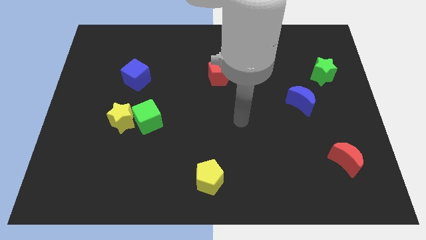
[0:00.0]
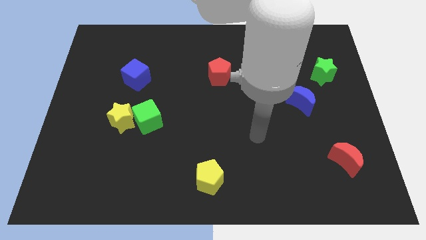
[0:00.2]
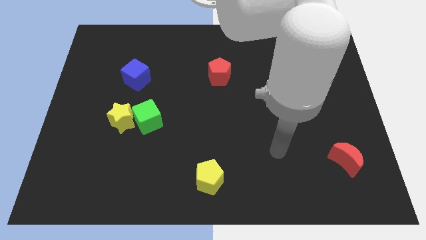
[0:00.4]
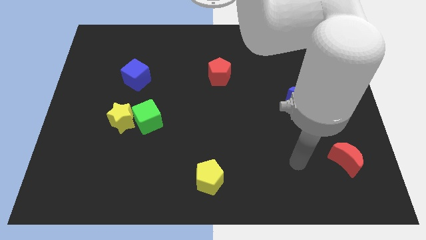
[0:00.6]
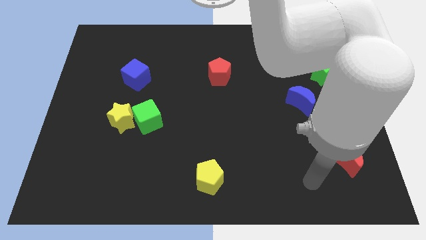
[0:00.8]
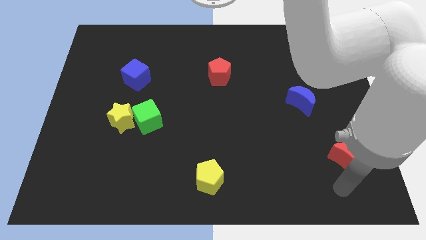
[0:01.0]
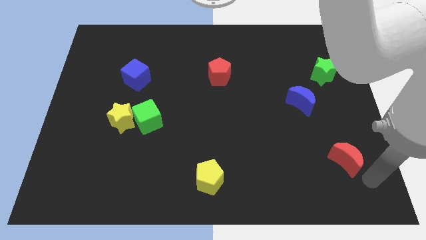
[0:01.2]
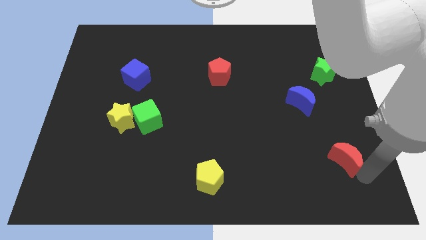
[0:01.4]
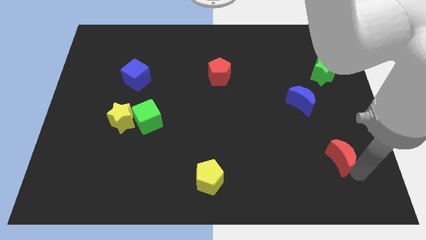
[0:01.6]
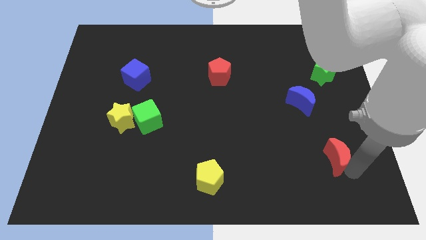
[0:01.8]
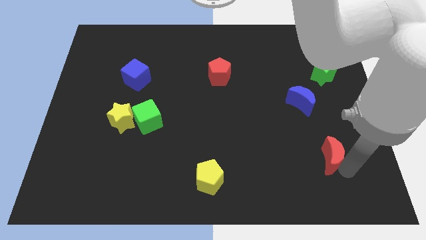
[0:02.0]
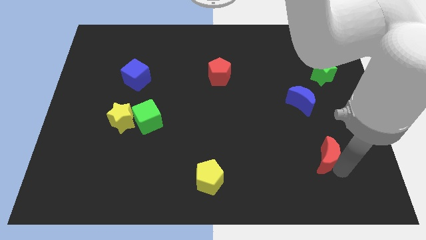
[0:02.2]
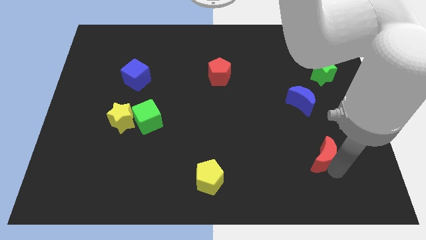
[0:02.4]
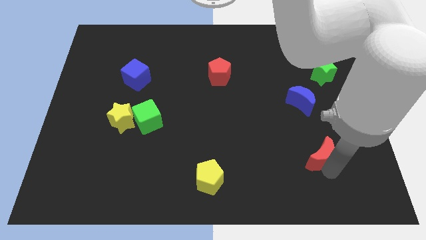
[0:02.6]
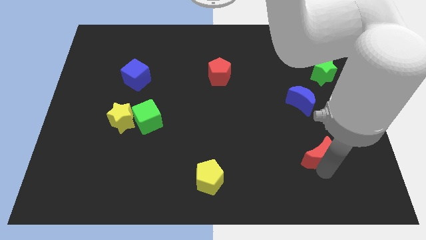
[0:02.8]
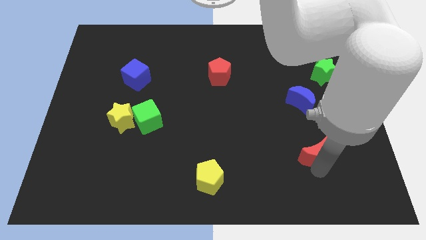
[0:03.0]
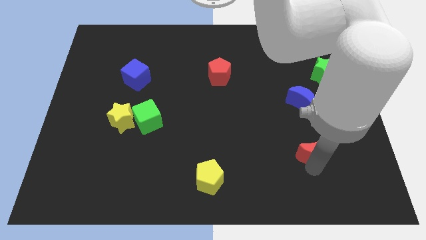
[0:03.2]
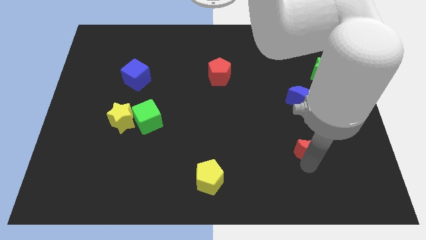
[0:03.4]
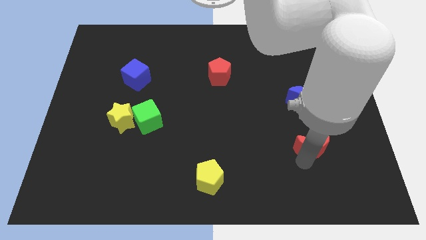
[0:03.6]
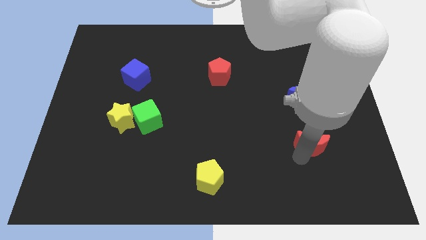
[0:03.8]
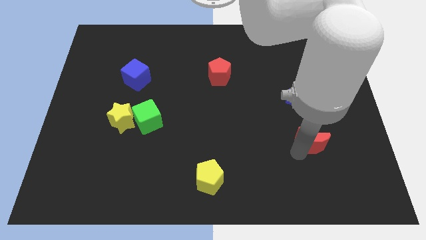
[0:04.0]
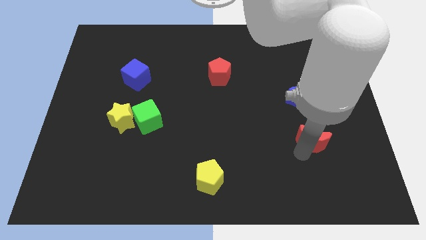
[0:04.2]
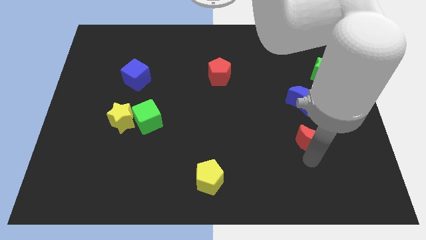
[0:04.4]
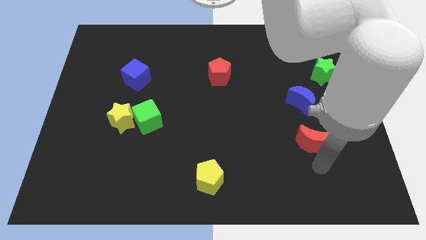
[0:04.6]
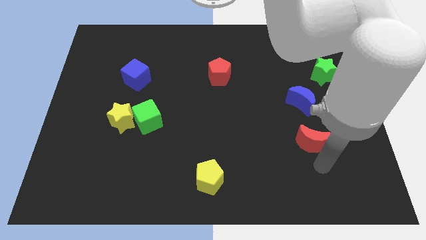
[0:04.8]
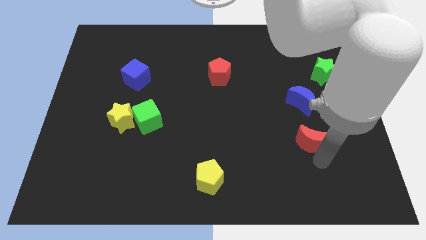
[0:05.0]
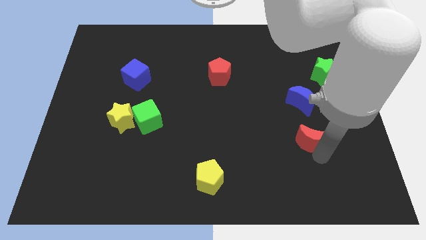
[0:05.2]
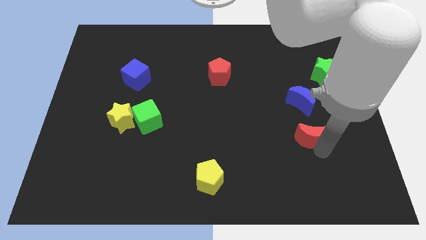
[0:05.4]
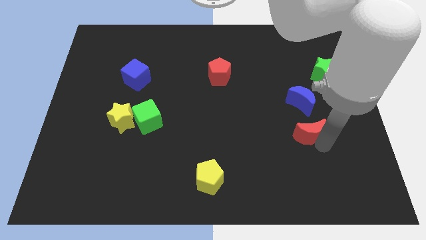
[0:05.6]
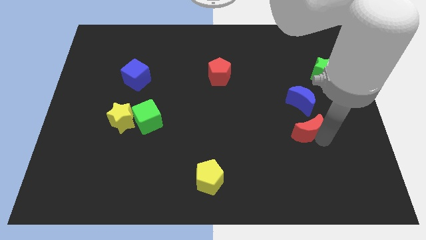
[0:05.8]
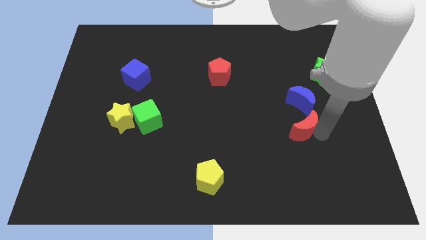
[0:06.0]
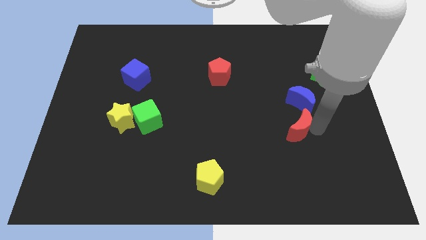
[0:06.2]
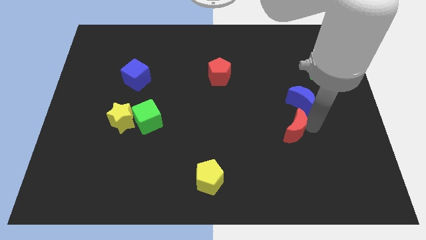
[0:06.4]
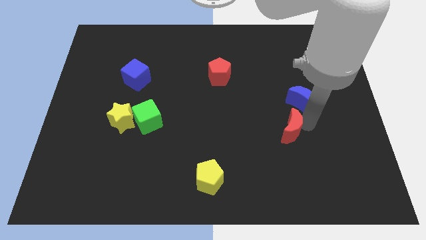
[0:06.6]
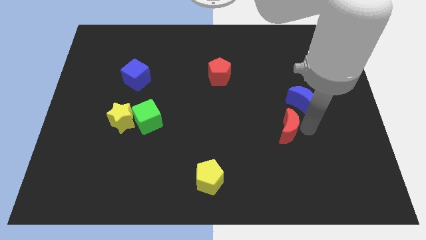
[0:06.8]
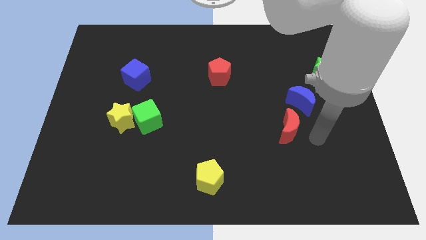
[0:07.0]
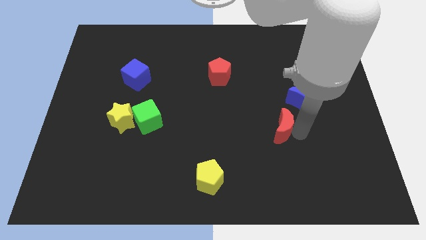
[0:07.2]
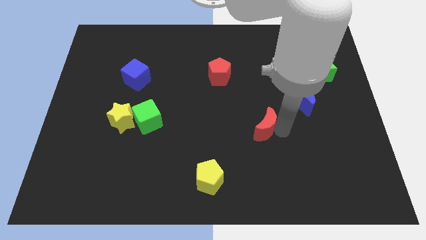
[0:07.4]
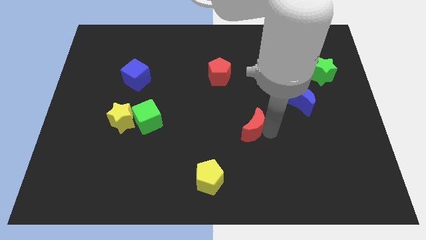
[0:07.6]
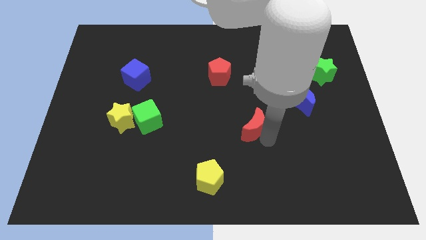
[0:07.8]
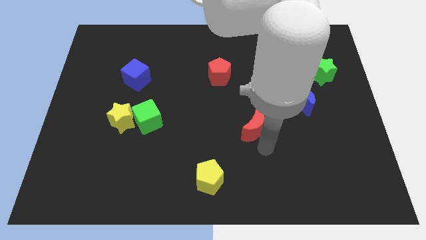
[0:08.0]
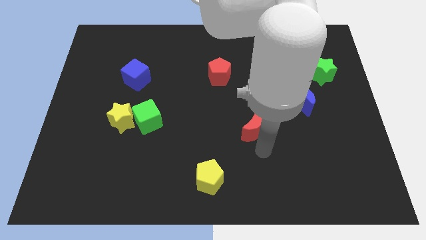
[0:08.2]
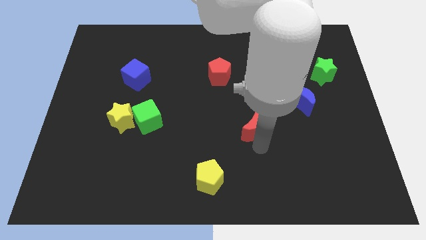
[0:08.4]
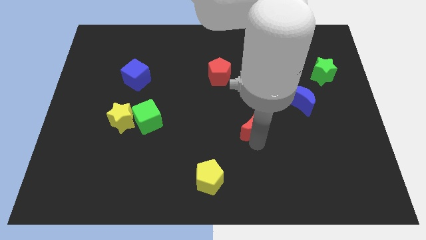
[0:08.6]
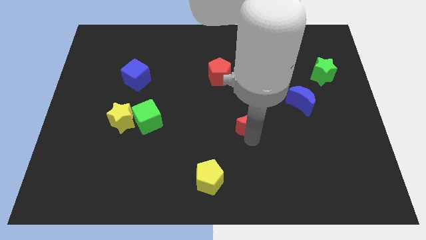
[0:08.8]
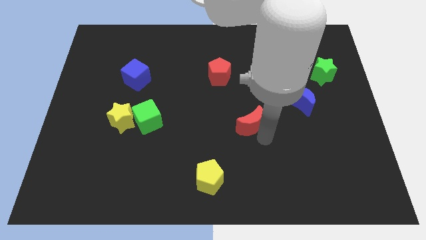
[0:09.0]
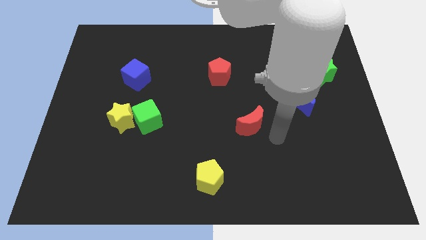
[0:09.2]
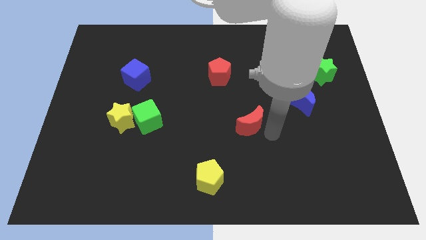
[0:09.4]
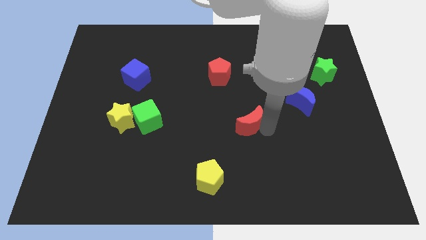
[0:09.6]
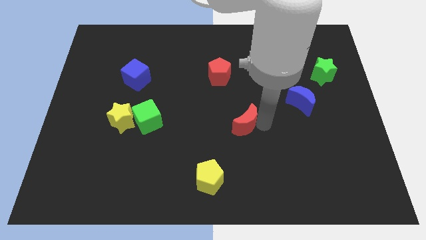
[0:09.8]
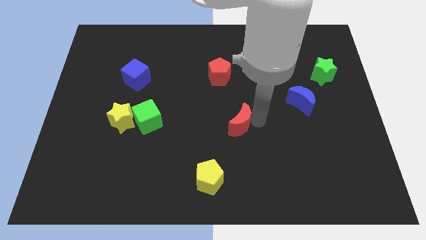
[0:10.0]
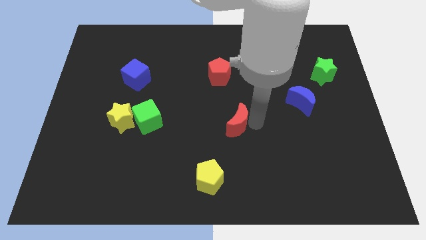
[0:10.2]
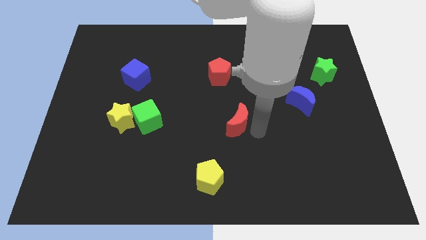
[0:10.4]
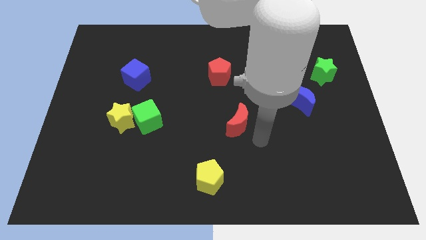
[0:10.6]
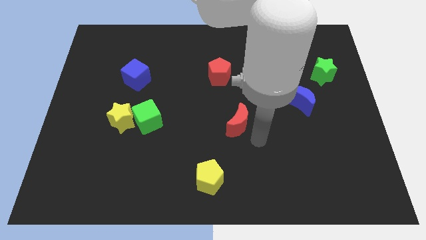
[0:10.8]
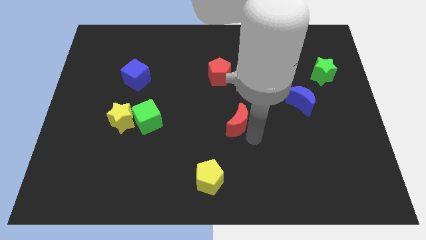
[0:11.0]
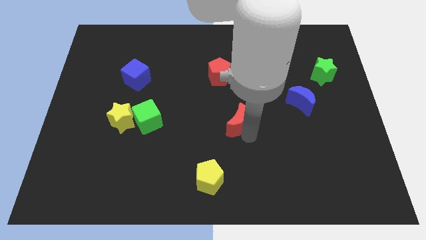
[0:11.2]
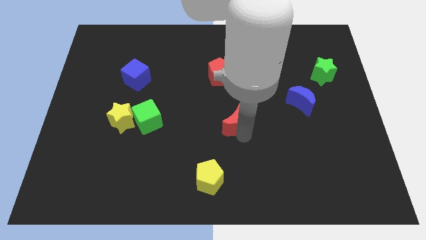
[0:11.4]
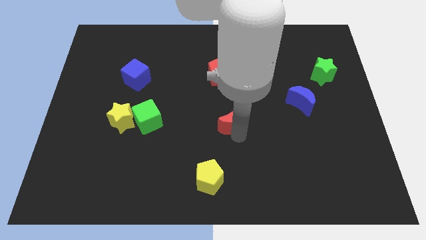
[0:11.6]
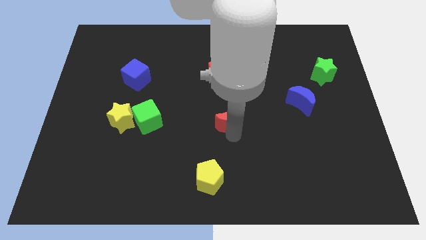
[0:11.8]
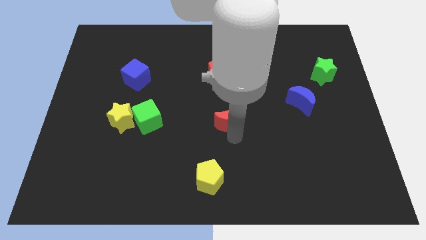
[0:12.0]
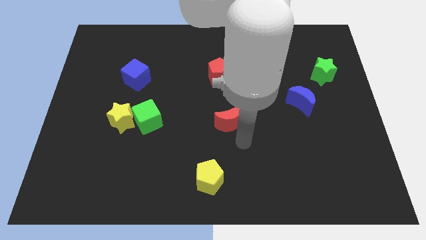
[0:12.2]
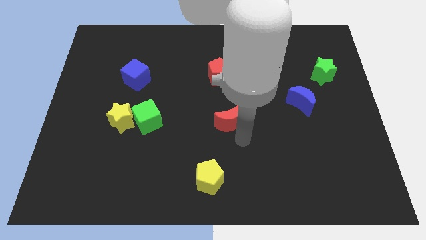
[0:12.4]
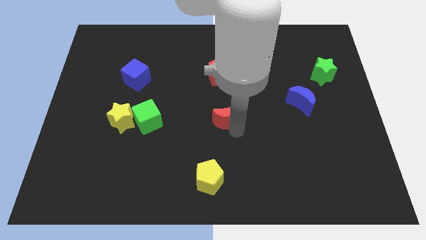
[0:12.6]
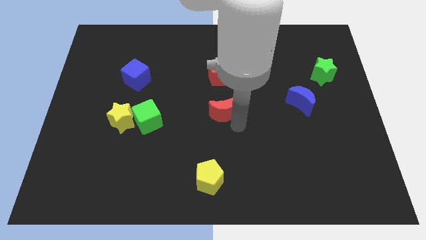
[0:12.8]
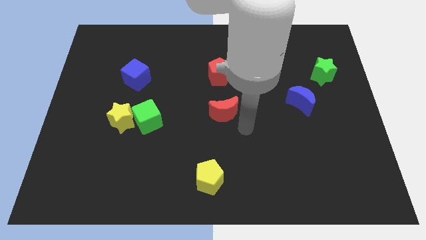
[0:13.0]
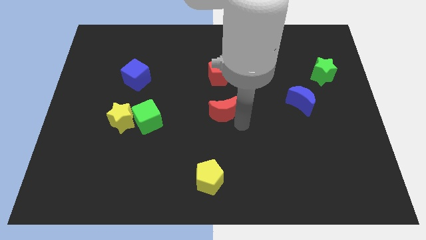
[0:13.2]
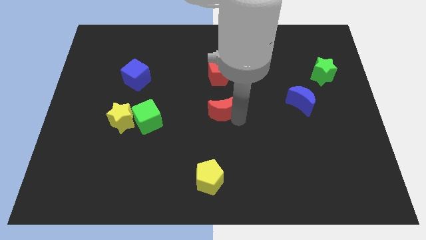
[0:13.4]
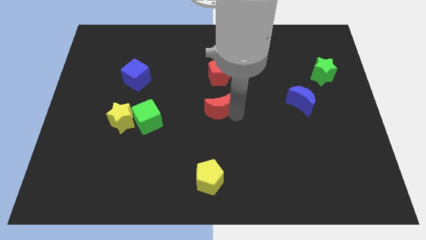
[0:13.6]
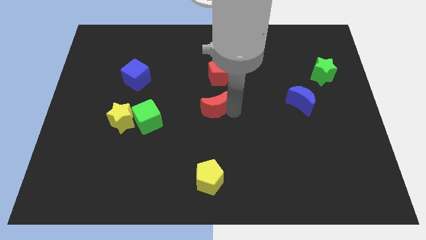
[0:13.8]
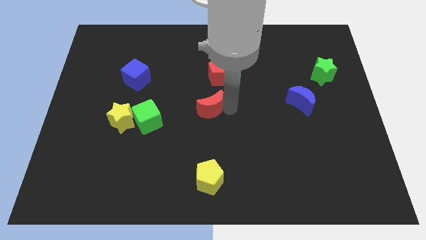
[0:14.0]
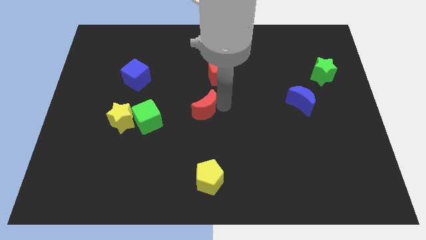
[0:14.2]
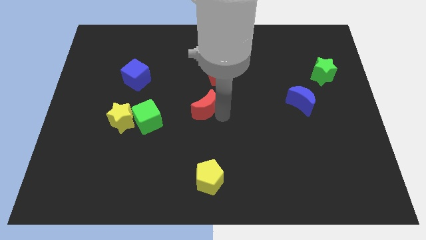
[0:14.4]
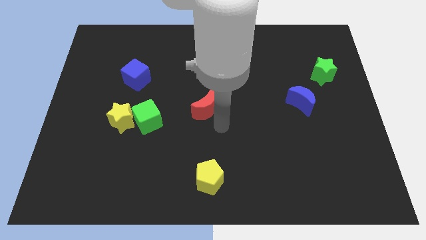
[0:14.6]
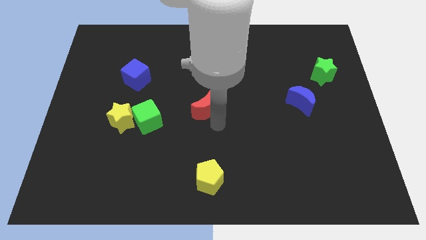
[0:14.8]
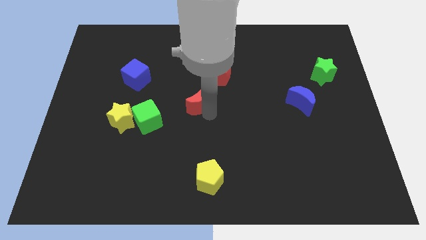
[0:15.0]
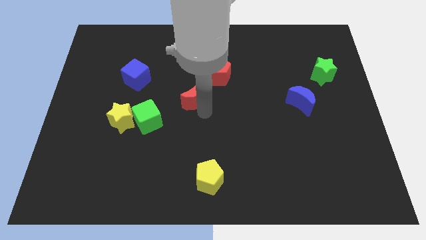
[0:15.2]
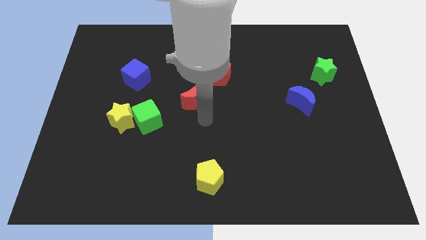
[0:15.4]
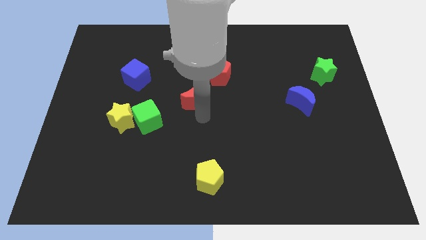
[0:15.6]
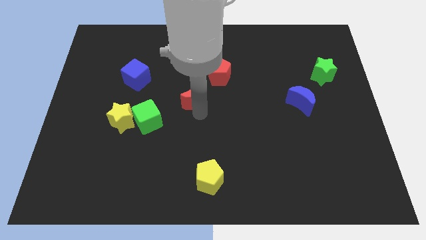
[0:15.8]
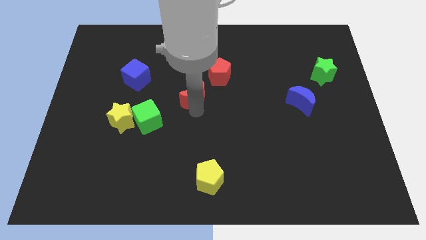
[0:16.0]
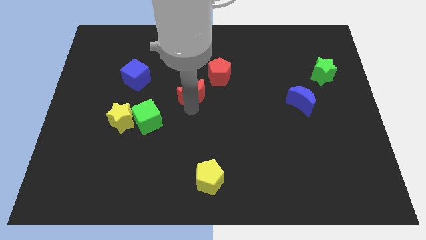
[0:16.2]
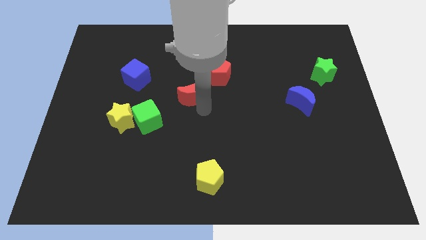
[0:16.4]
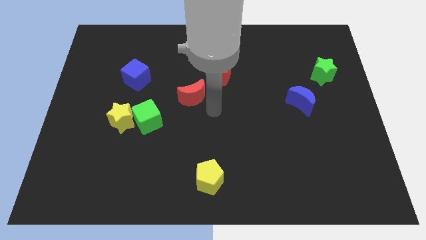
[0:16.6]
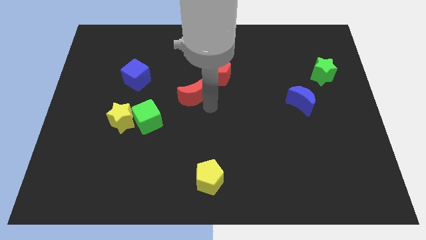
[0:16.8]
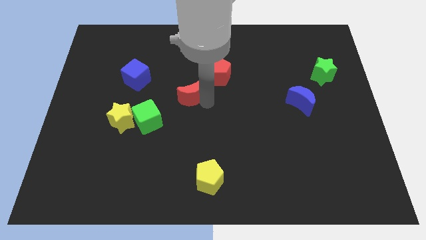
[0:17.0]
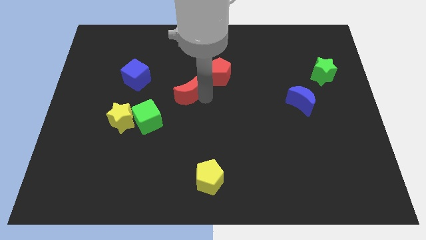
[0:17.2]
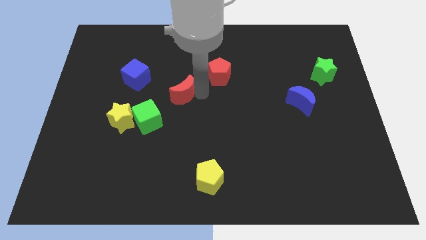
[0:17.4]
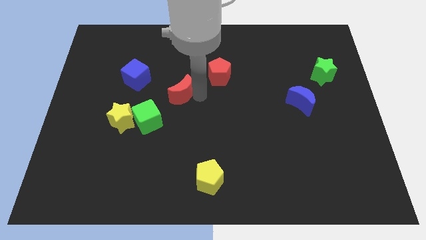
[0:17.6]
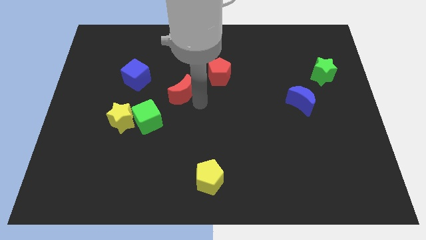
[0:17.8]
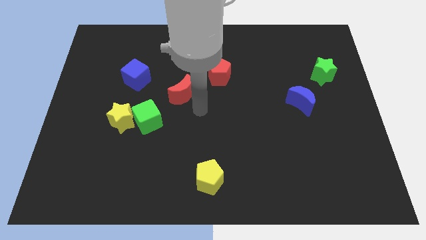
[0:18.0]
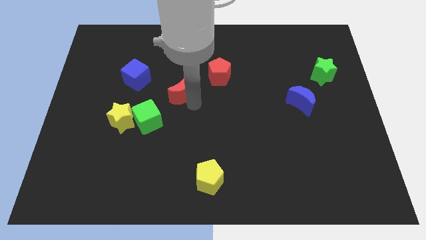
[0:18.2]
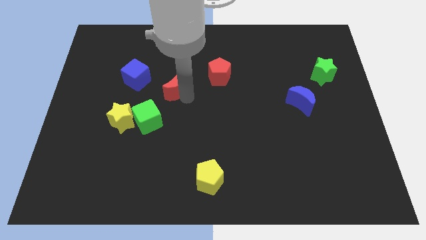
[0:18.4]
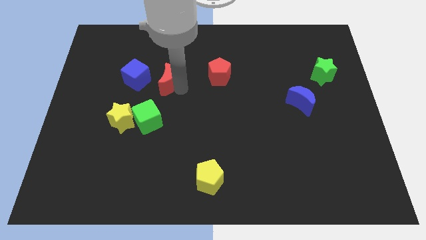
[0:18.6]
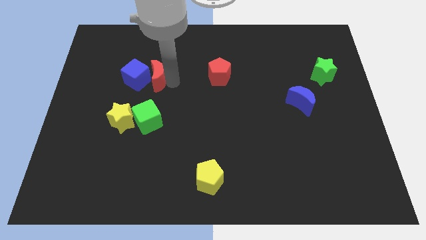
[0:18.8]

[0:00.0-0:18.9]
put the red moon next to the blue cube
